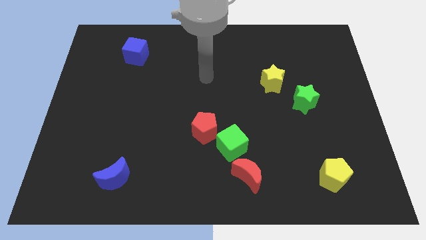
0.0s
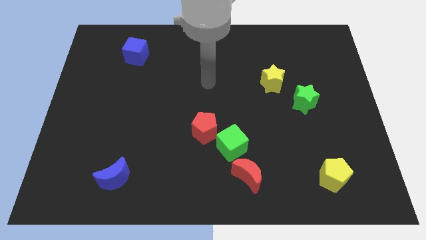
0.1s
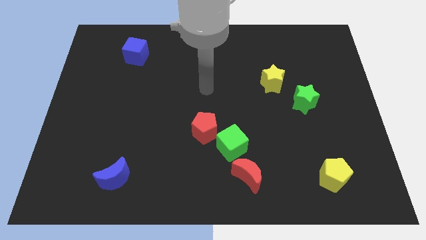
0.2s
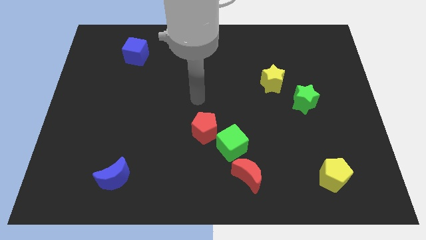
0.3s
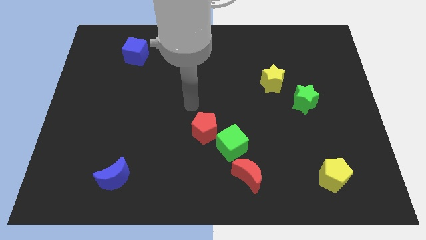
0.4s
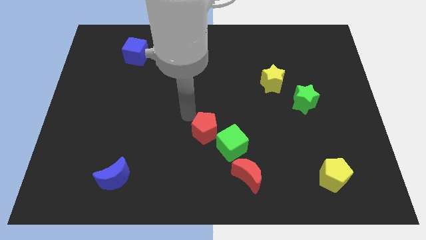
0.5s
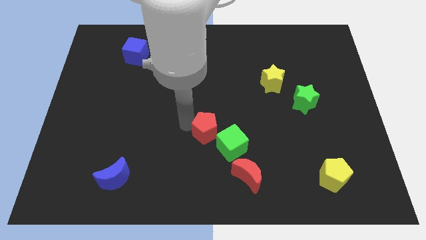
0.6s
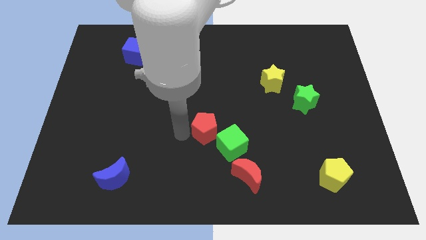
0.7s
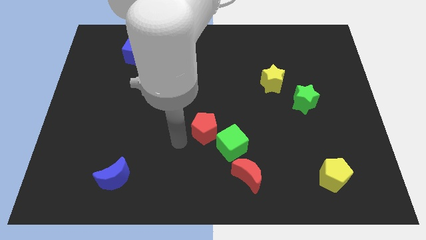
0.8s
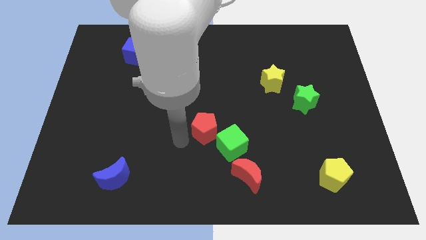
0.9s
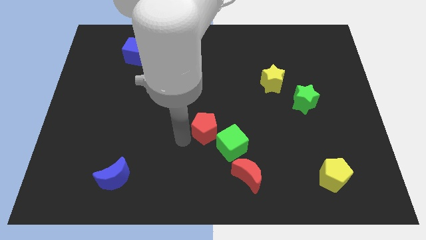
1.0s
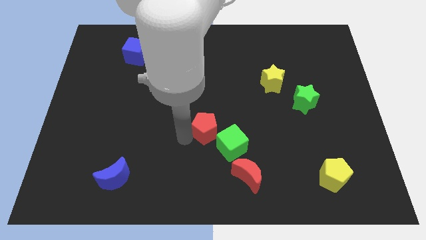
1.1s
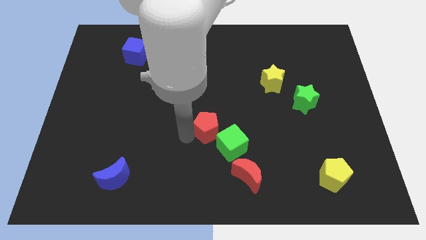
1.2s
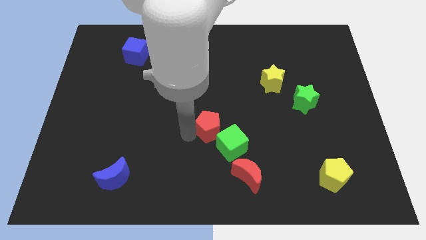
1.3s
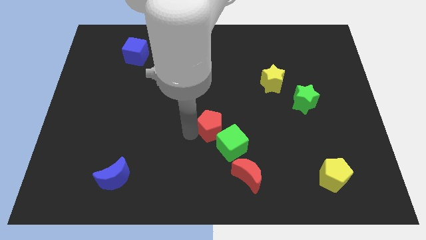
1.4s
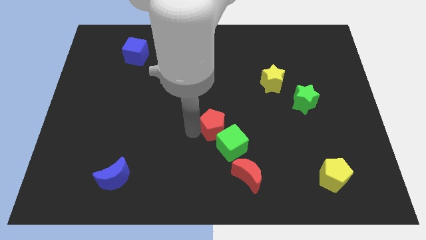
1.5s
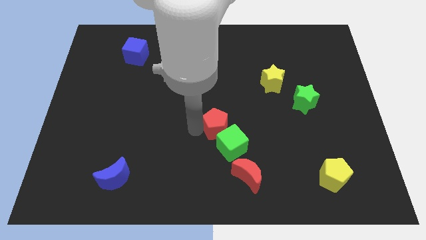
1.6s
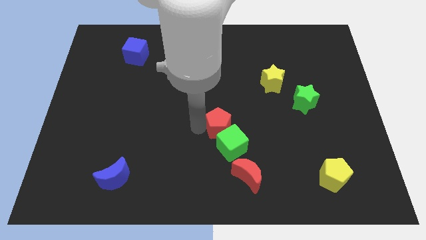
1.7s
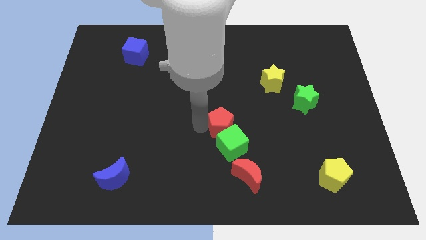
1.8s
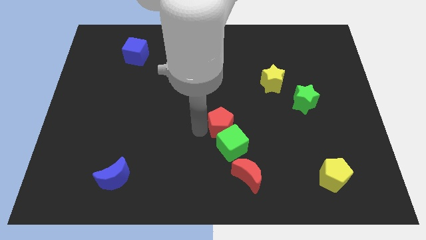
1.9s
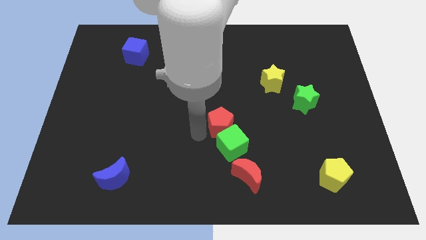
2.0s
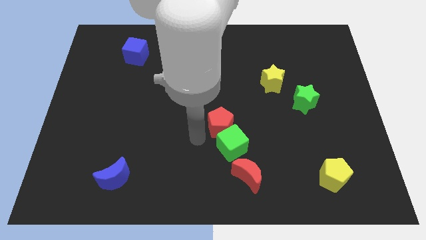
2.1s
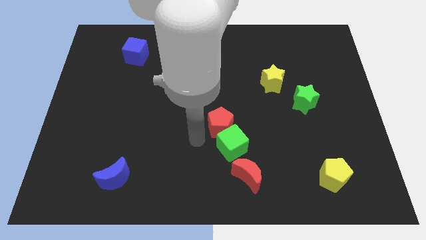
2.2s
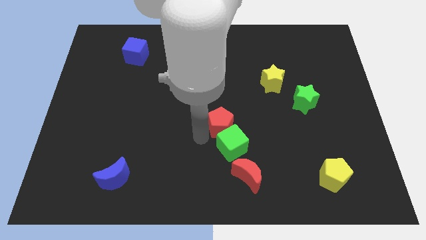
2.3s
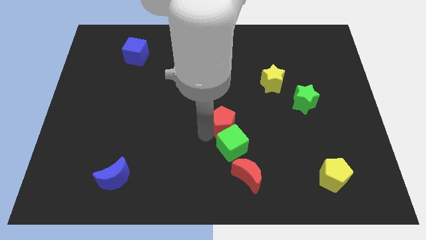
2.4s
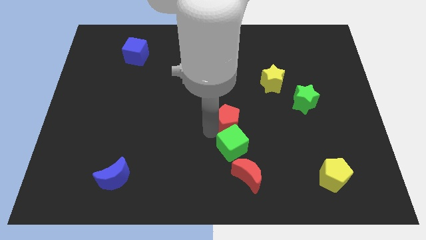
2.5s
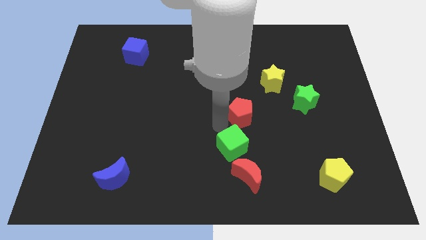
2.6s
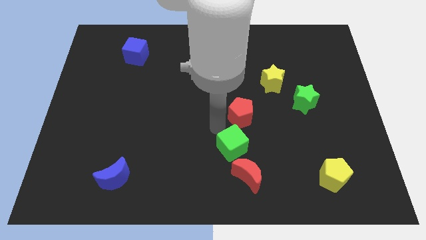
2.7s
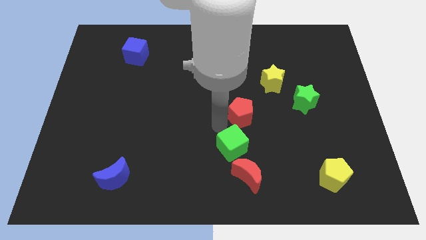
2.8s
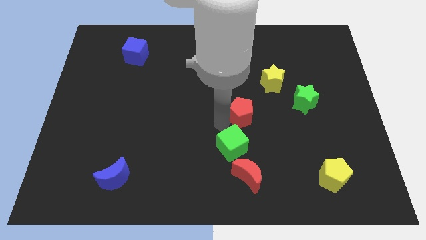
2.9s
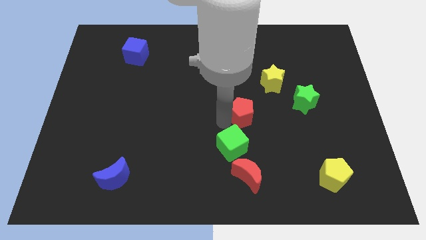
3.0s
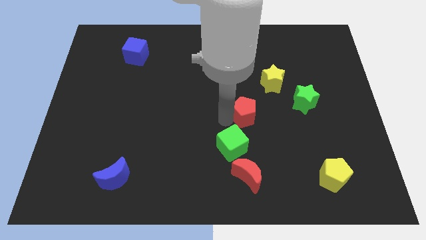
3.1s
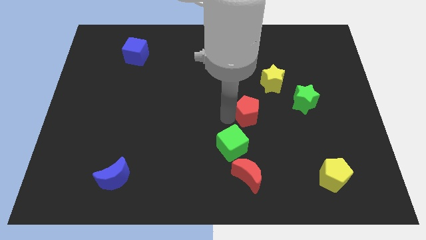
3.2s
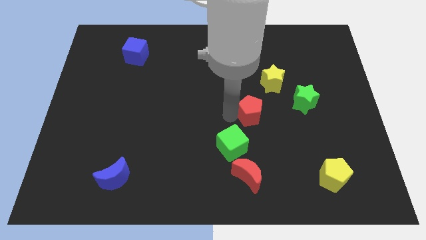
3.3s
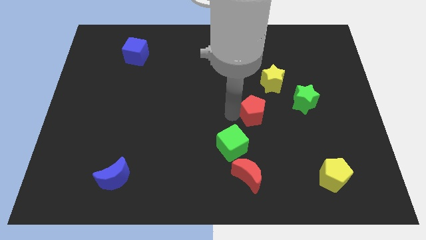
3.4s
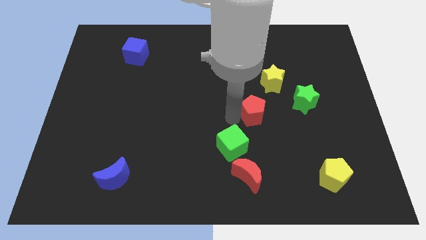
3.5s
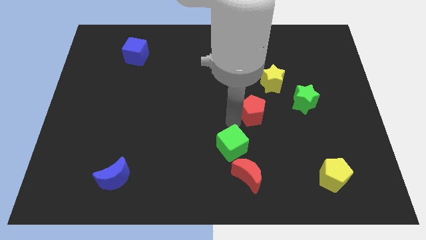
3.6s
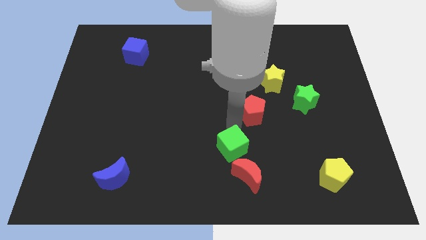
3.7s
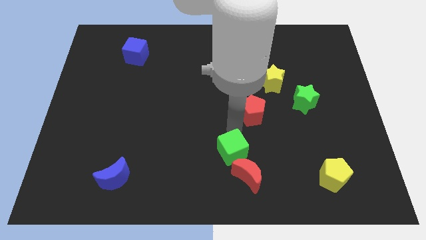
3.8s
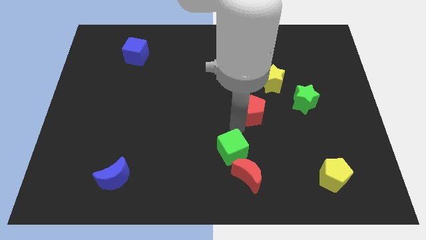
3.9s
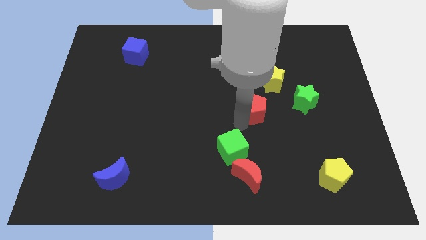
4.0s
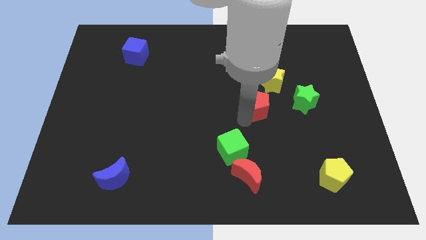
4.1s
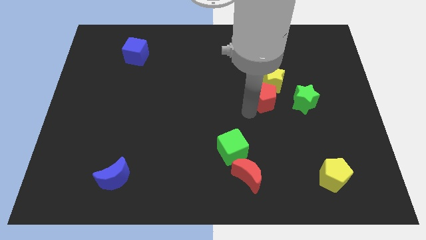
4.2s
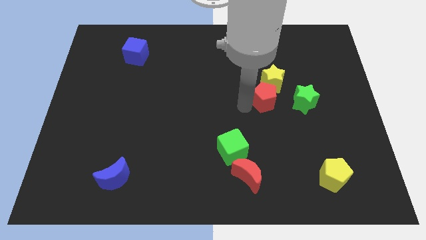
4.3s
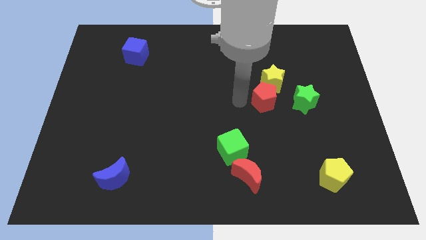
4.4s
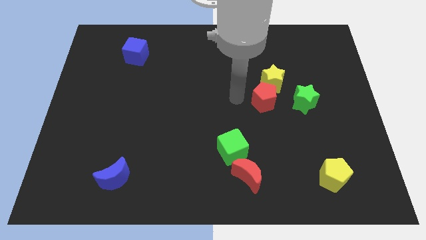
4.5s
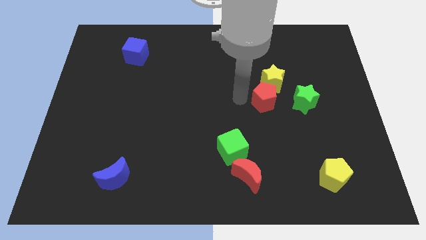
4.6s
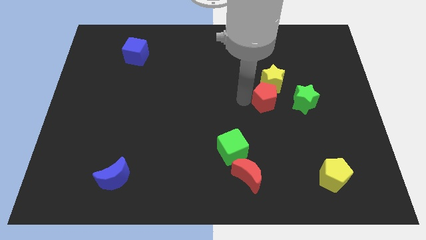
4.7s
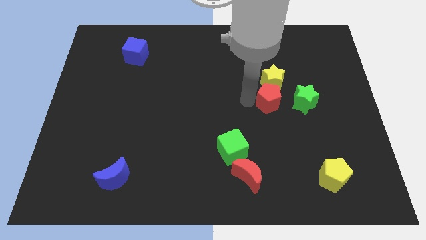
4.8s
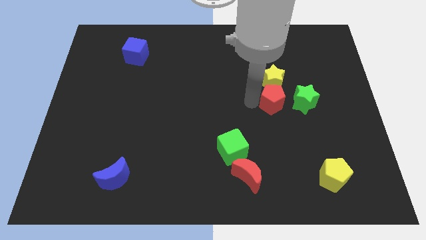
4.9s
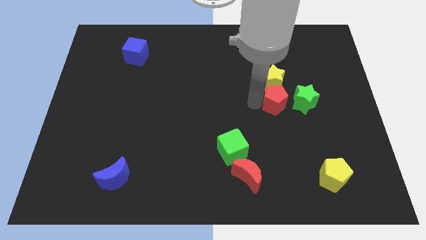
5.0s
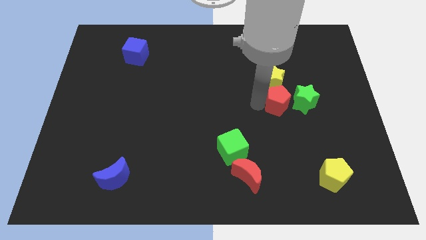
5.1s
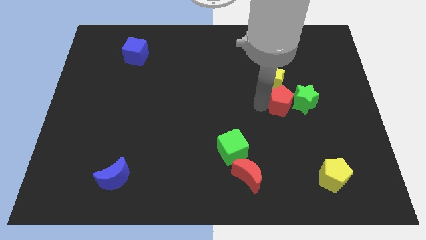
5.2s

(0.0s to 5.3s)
move the red pentagon close to the green star

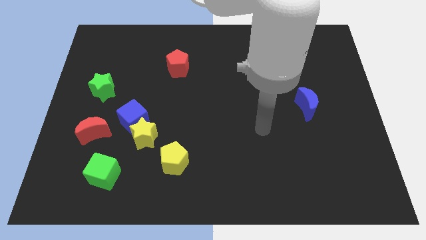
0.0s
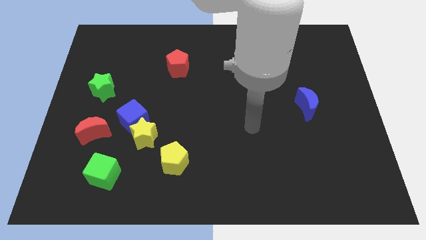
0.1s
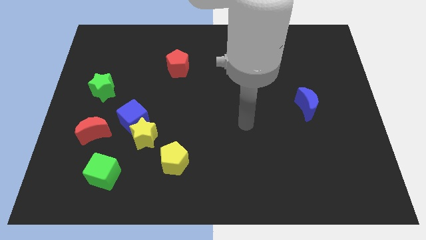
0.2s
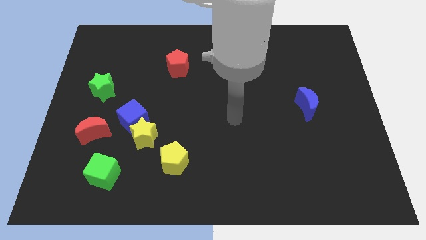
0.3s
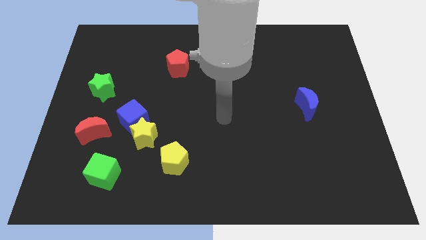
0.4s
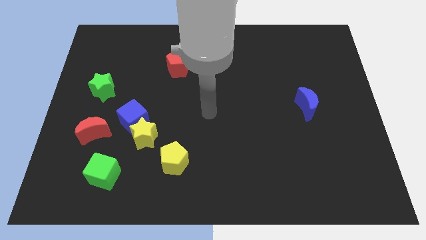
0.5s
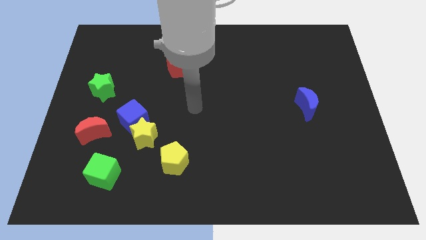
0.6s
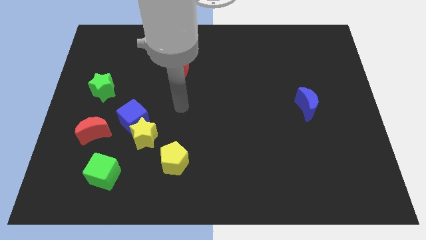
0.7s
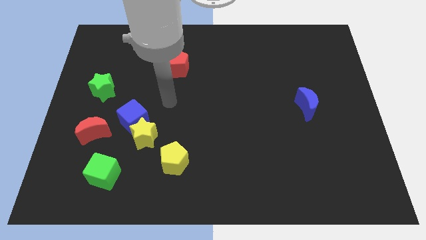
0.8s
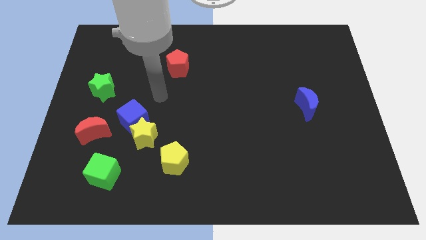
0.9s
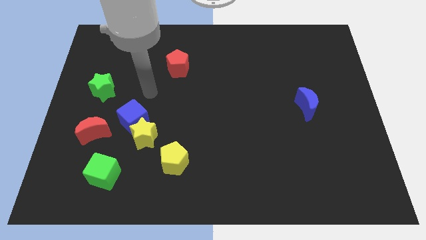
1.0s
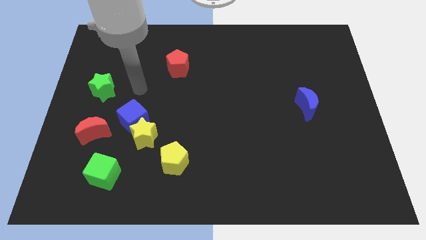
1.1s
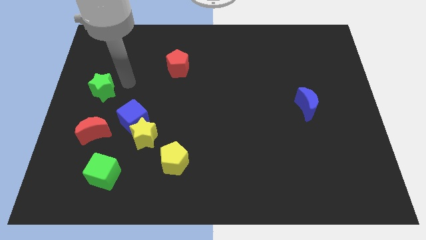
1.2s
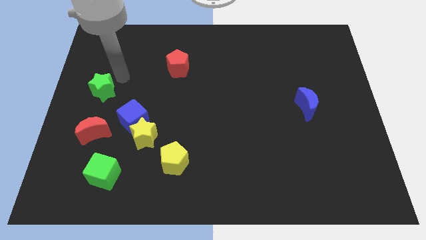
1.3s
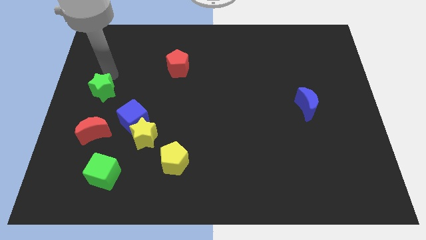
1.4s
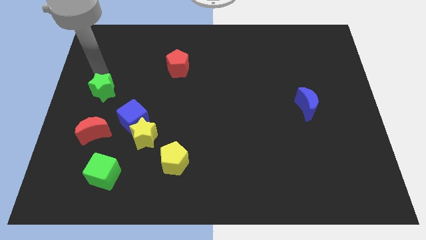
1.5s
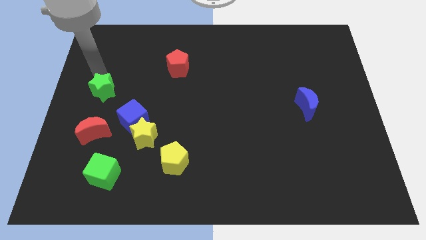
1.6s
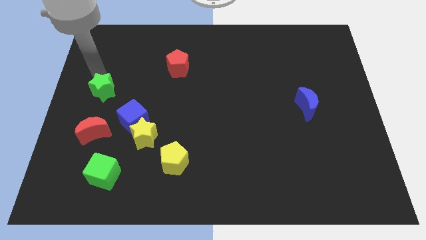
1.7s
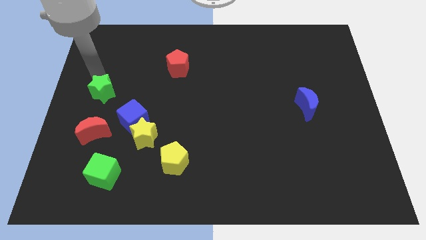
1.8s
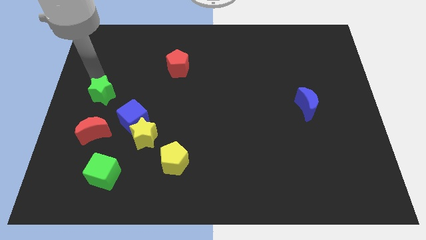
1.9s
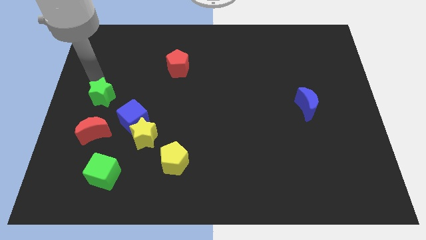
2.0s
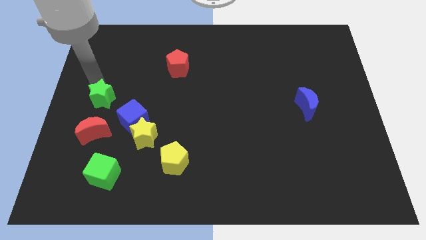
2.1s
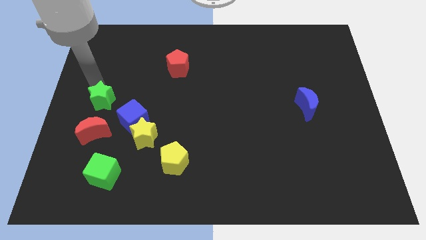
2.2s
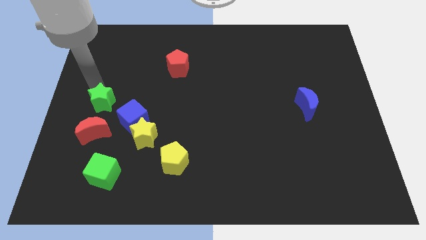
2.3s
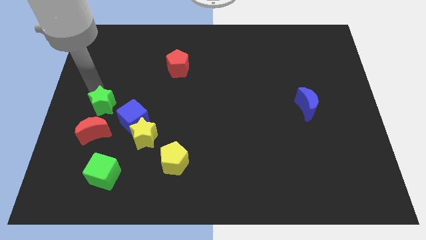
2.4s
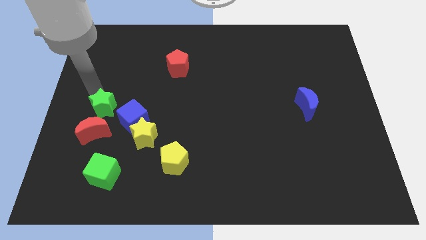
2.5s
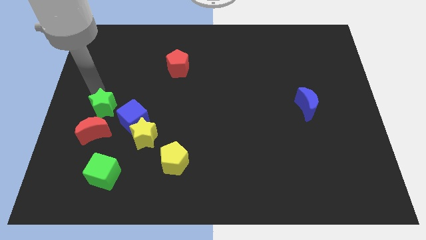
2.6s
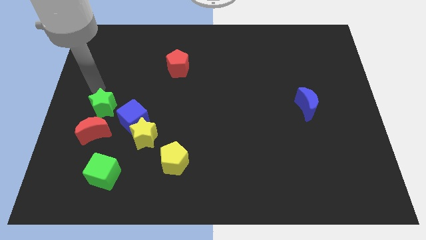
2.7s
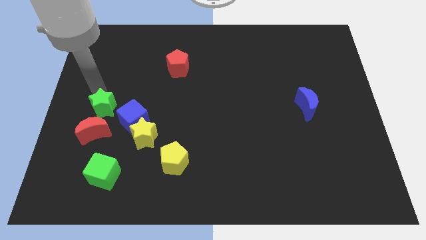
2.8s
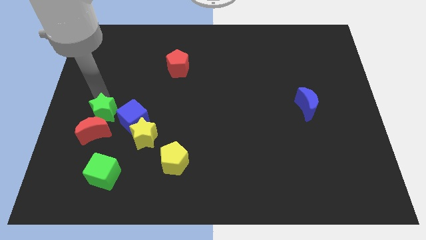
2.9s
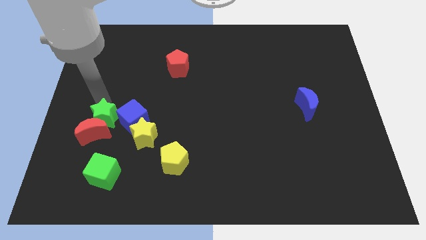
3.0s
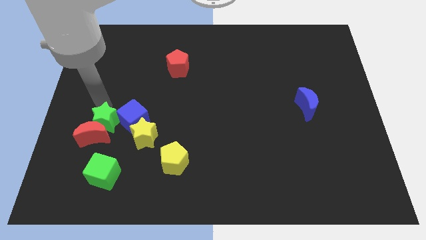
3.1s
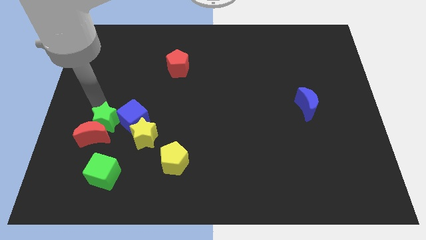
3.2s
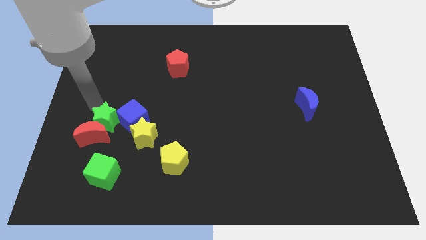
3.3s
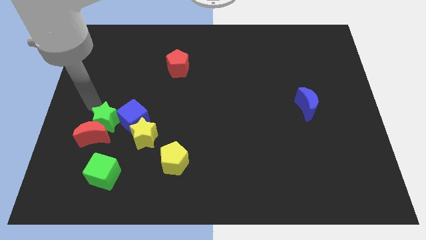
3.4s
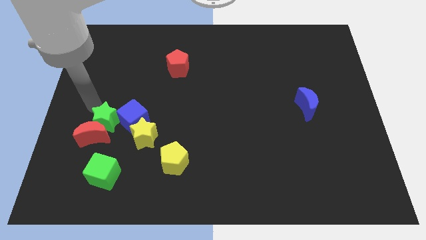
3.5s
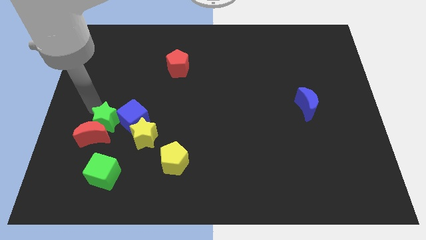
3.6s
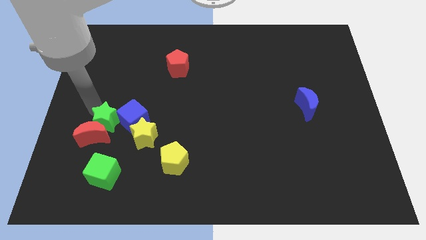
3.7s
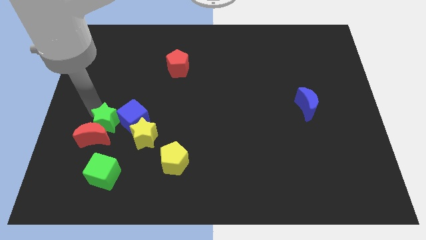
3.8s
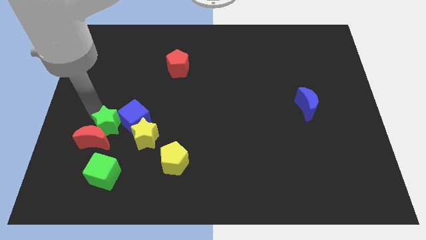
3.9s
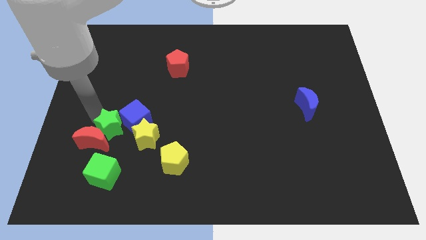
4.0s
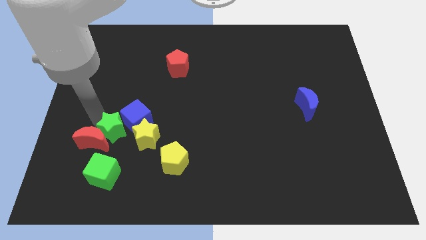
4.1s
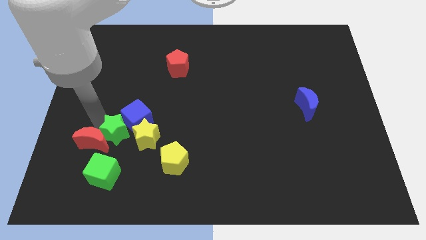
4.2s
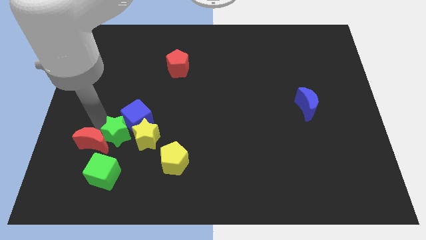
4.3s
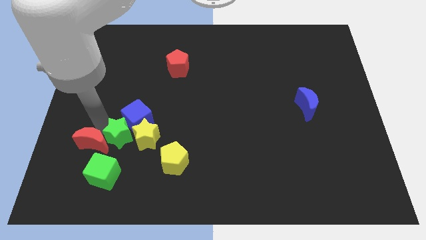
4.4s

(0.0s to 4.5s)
move the green star towards the yellow star
